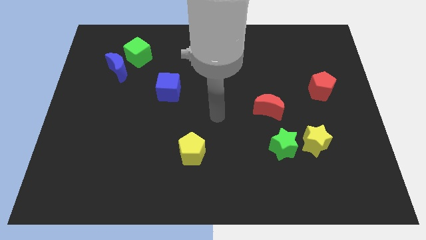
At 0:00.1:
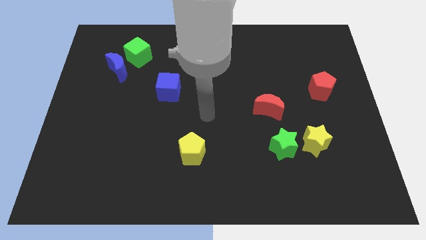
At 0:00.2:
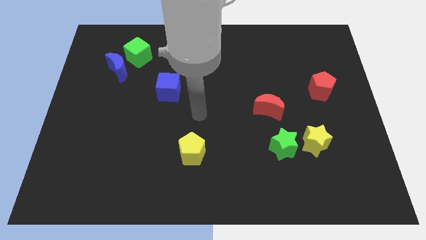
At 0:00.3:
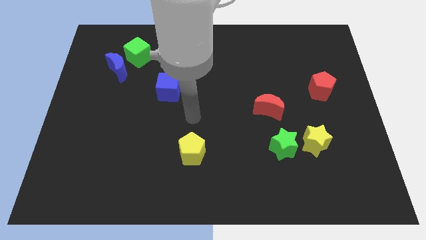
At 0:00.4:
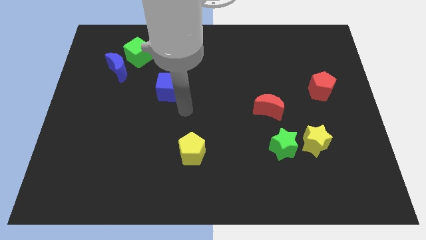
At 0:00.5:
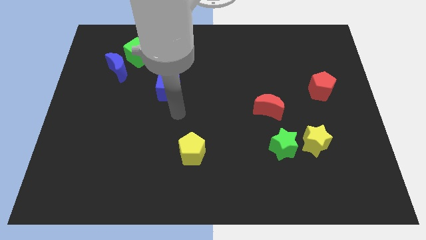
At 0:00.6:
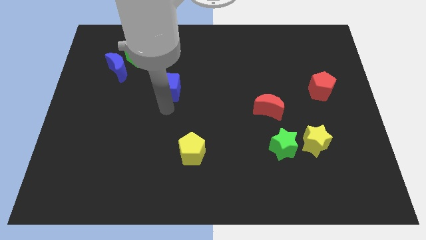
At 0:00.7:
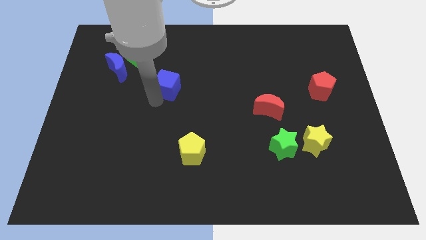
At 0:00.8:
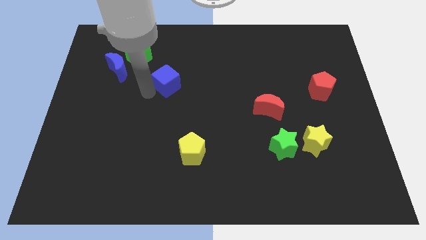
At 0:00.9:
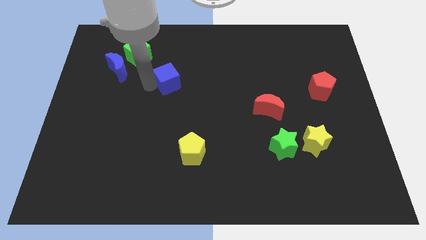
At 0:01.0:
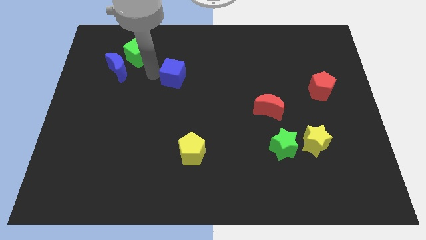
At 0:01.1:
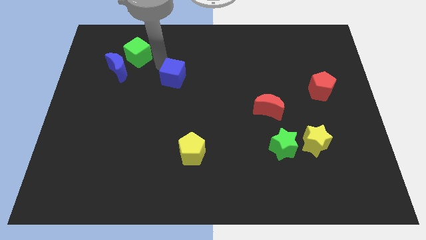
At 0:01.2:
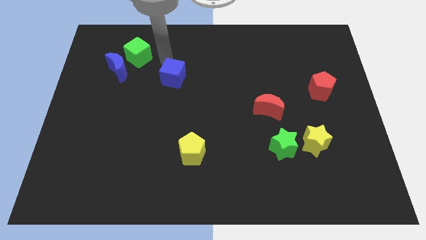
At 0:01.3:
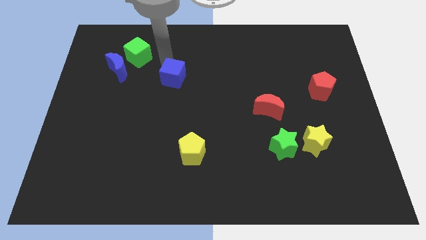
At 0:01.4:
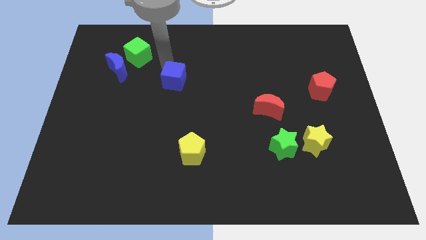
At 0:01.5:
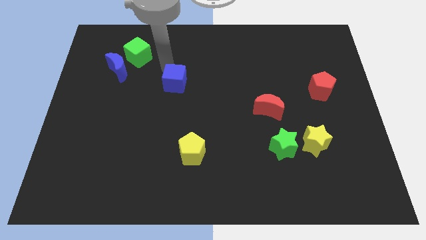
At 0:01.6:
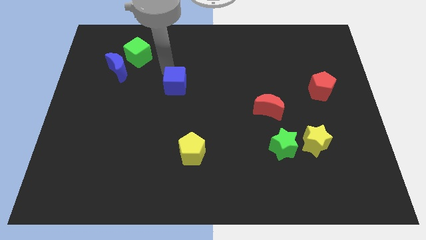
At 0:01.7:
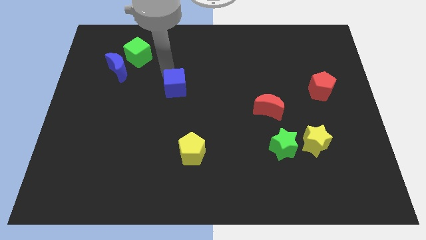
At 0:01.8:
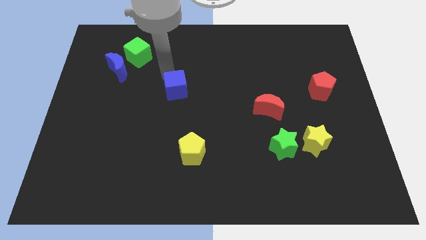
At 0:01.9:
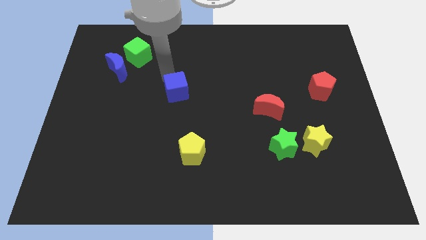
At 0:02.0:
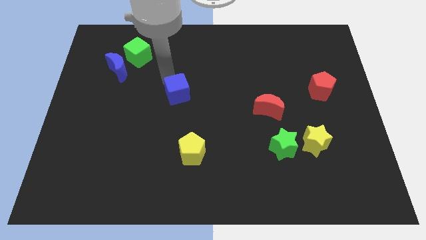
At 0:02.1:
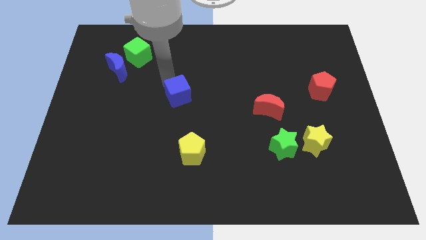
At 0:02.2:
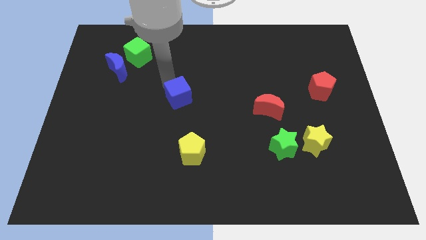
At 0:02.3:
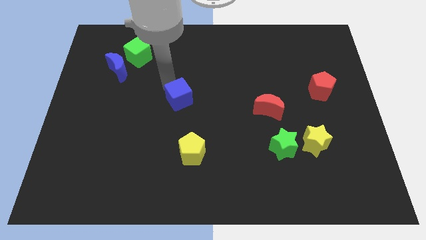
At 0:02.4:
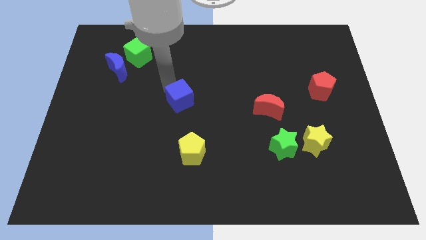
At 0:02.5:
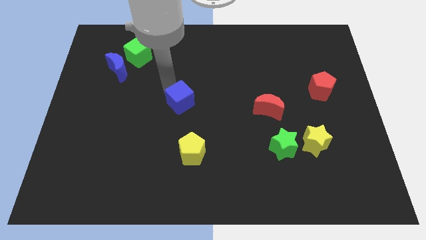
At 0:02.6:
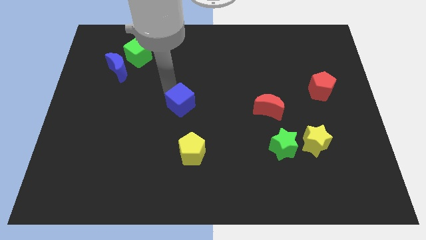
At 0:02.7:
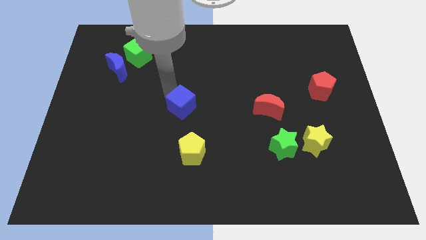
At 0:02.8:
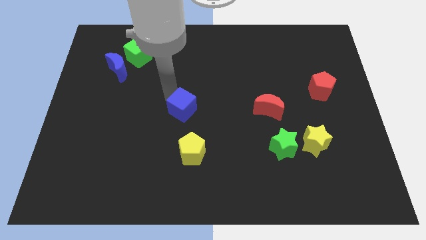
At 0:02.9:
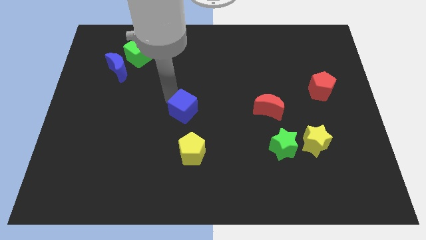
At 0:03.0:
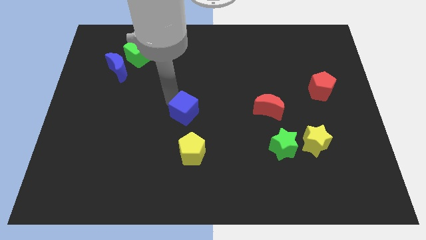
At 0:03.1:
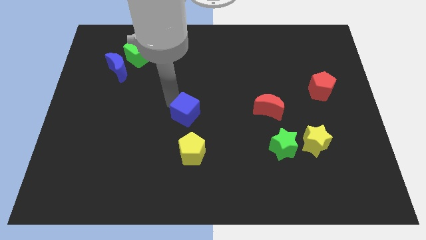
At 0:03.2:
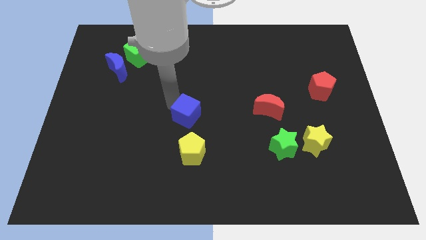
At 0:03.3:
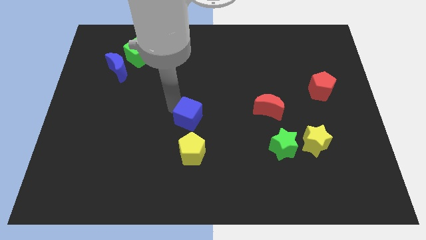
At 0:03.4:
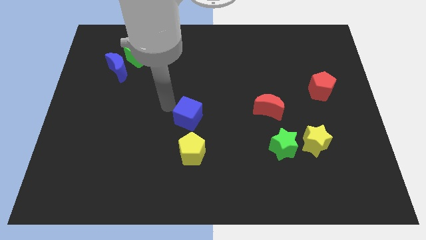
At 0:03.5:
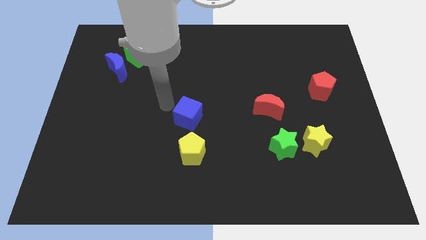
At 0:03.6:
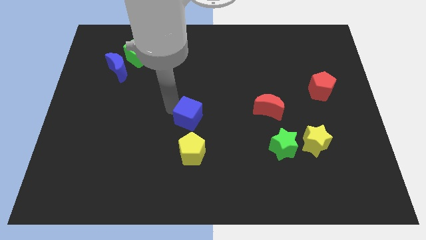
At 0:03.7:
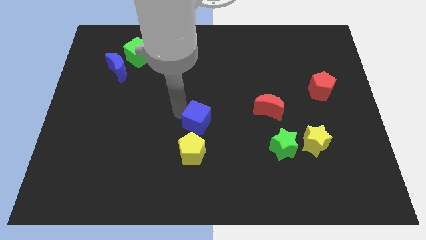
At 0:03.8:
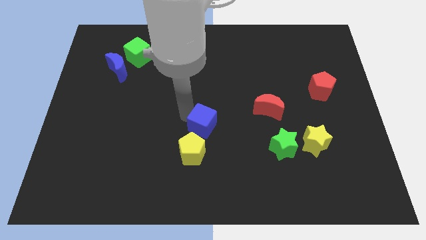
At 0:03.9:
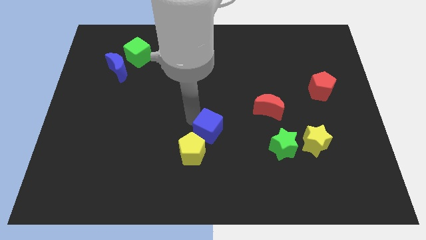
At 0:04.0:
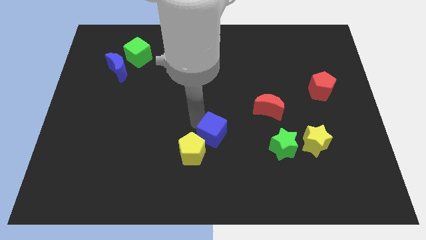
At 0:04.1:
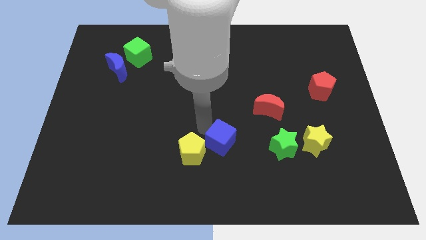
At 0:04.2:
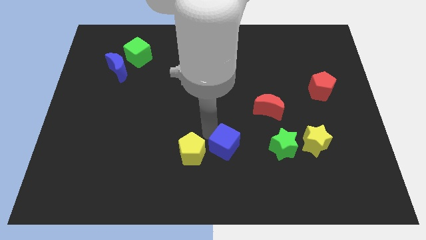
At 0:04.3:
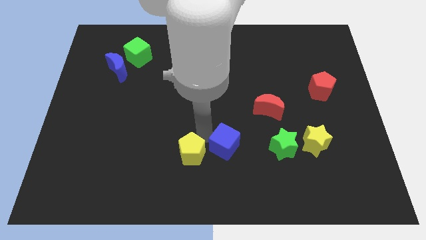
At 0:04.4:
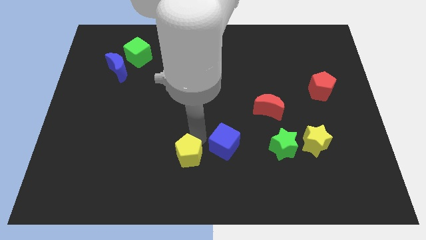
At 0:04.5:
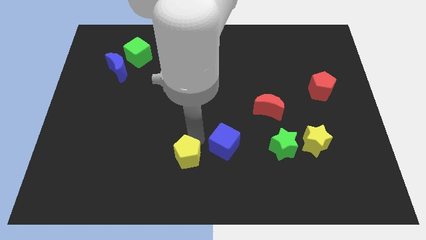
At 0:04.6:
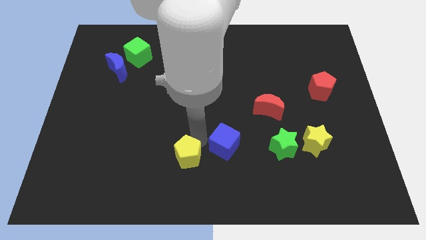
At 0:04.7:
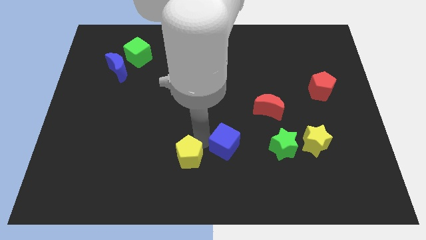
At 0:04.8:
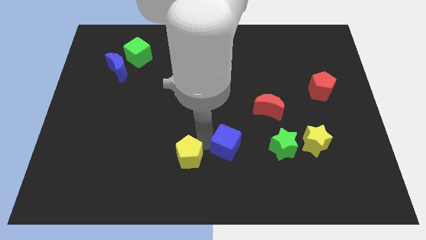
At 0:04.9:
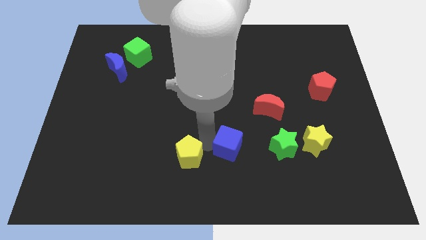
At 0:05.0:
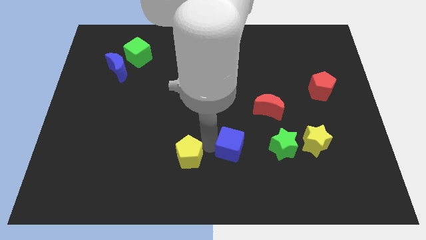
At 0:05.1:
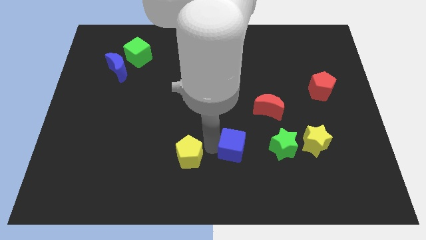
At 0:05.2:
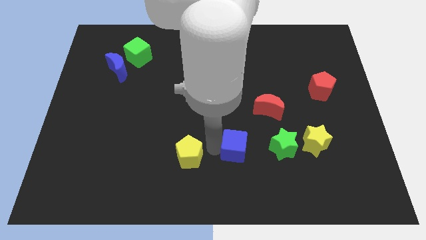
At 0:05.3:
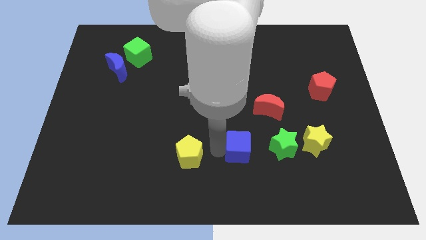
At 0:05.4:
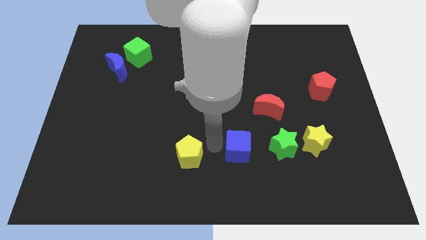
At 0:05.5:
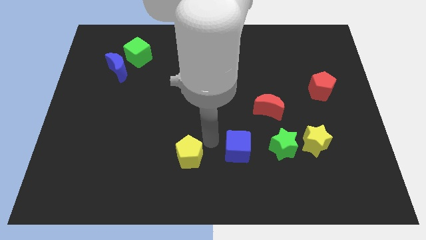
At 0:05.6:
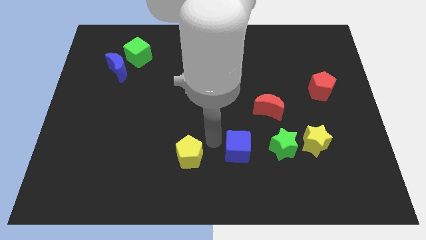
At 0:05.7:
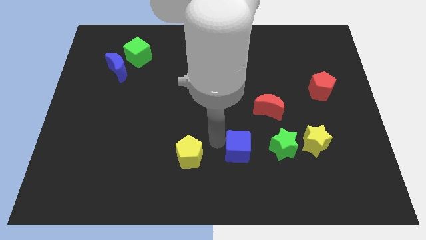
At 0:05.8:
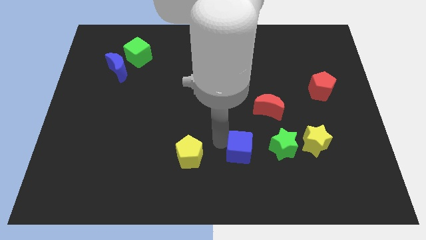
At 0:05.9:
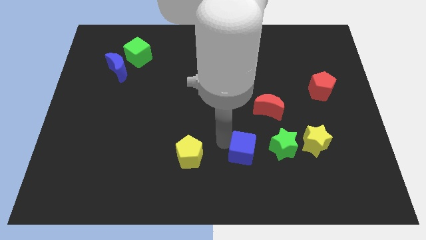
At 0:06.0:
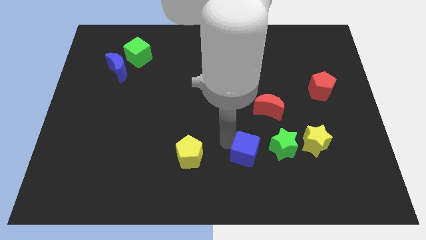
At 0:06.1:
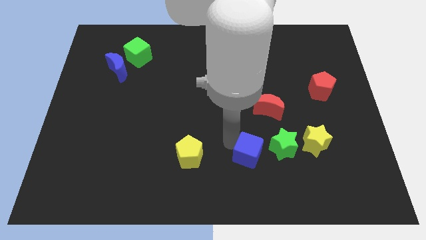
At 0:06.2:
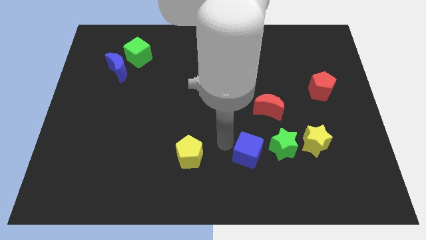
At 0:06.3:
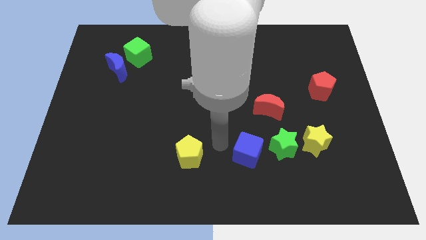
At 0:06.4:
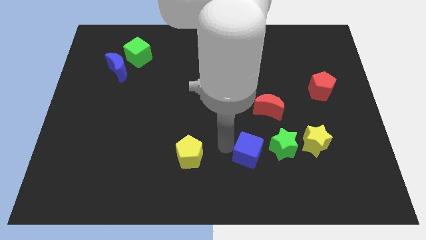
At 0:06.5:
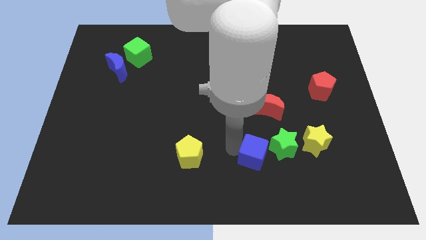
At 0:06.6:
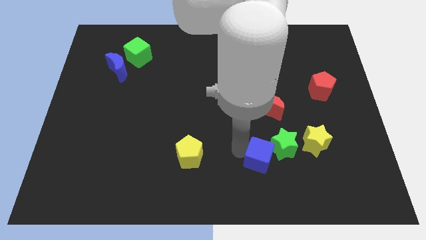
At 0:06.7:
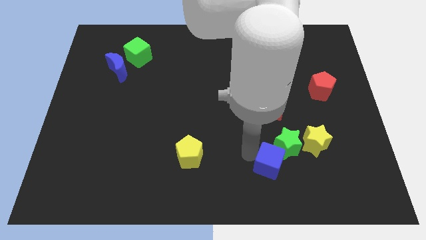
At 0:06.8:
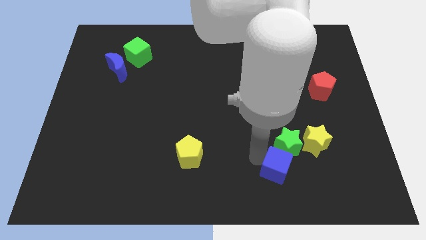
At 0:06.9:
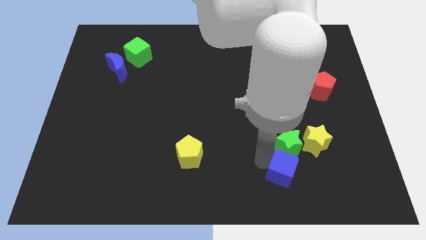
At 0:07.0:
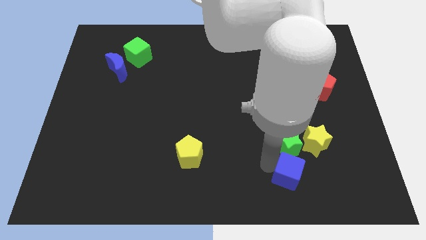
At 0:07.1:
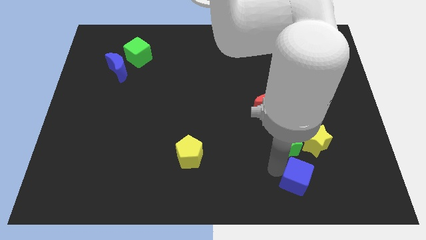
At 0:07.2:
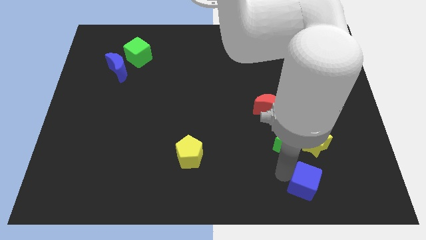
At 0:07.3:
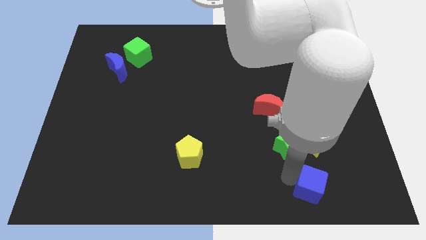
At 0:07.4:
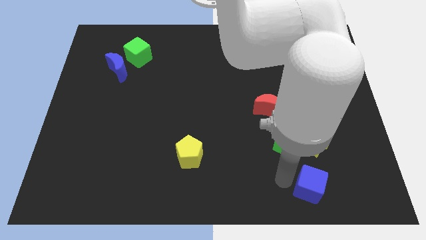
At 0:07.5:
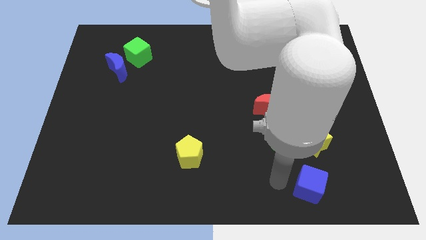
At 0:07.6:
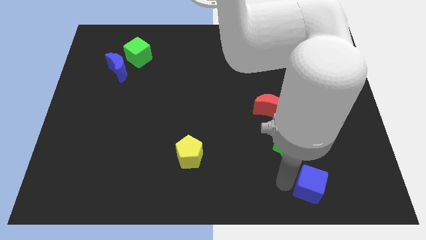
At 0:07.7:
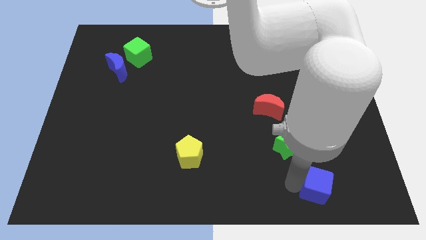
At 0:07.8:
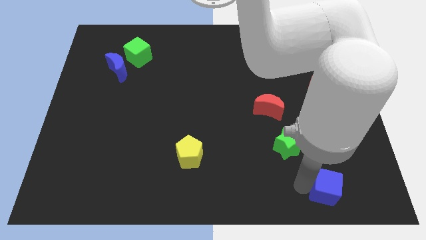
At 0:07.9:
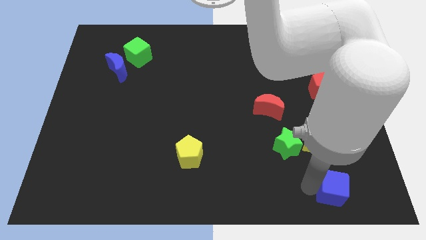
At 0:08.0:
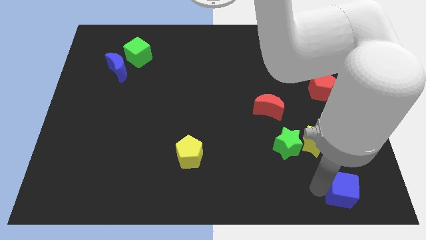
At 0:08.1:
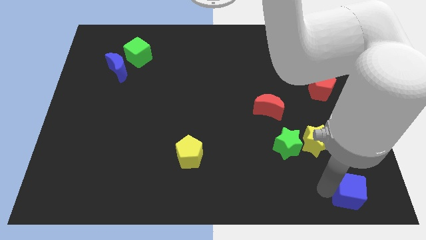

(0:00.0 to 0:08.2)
push the blue cube to the lower right corner

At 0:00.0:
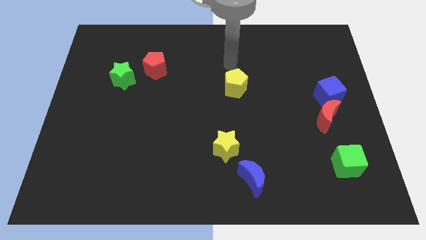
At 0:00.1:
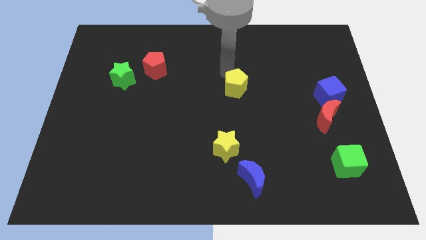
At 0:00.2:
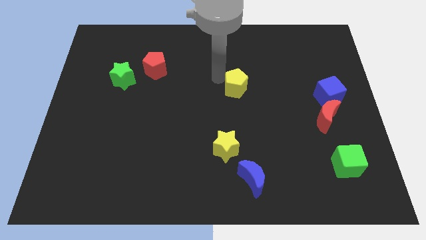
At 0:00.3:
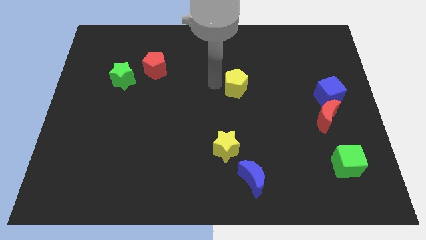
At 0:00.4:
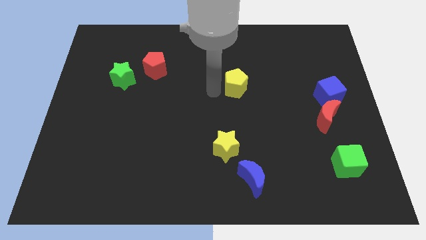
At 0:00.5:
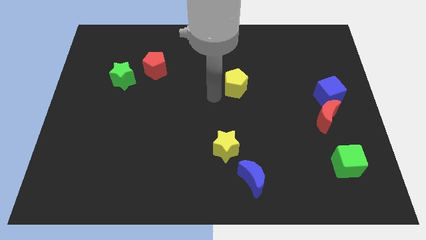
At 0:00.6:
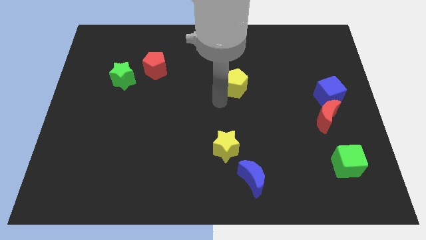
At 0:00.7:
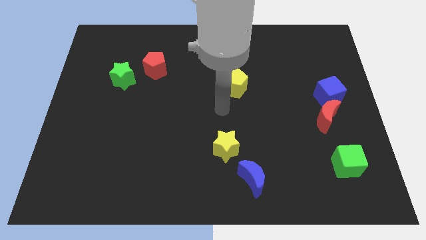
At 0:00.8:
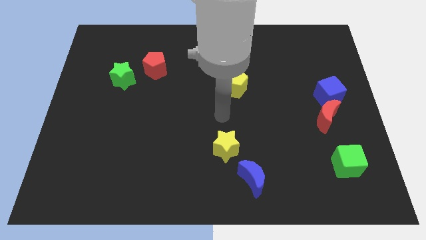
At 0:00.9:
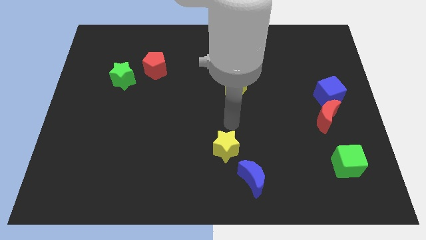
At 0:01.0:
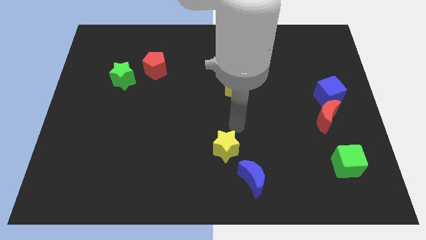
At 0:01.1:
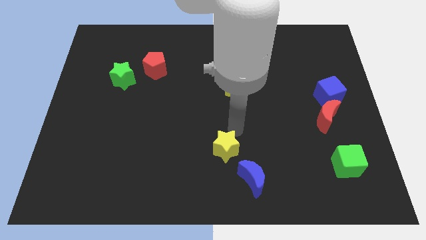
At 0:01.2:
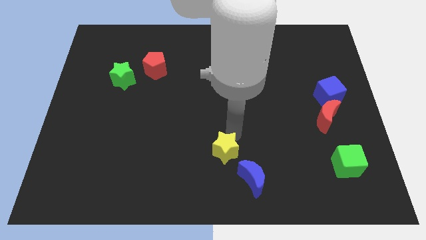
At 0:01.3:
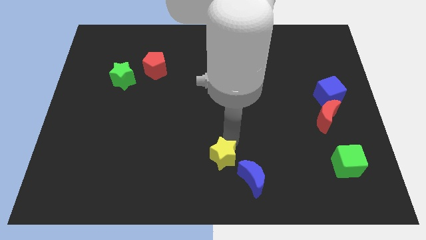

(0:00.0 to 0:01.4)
put the yellow star to the bottom side
